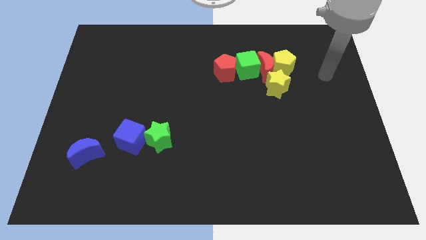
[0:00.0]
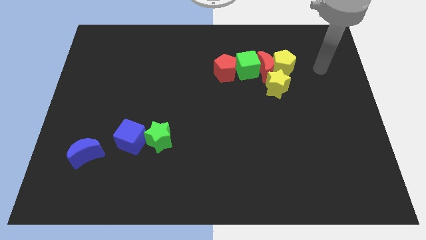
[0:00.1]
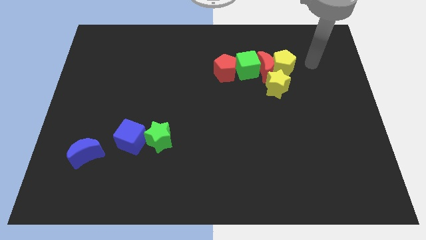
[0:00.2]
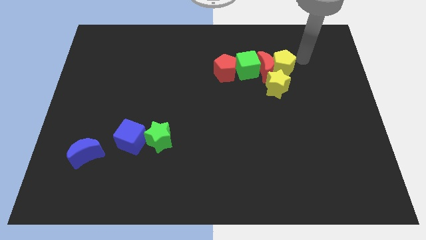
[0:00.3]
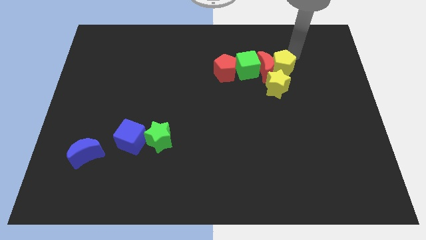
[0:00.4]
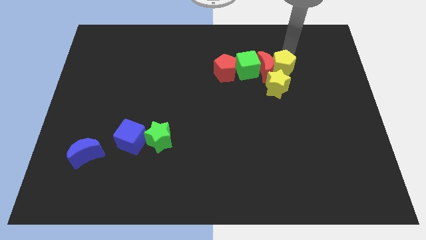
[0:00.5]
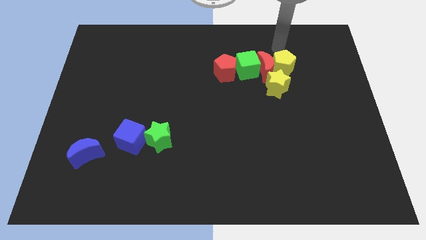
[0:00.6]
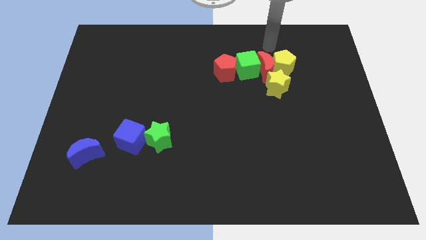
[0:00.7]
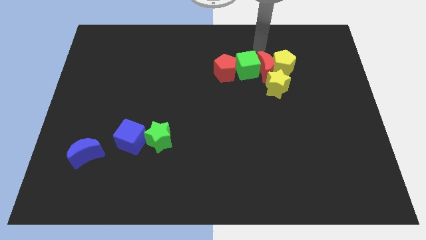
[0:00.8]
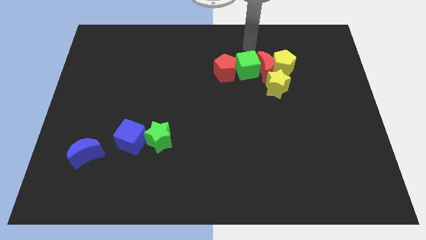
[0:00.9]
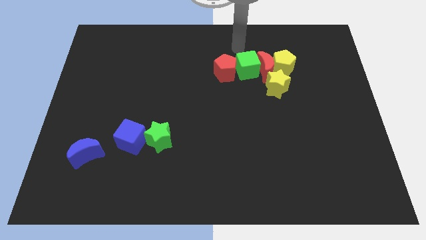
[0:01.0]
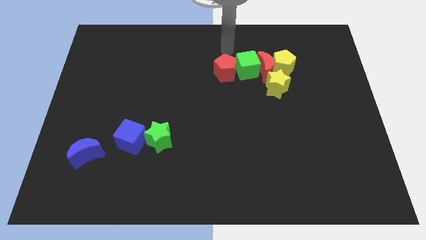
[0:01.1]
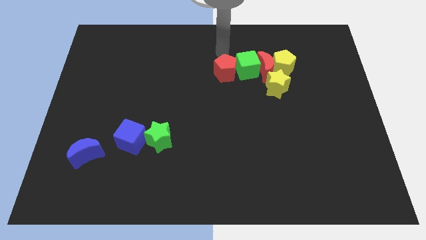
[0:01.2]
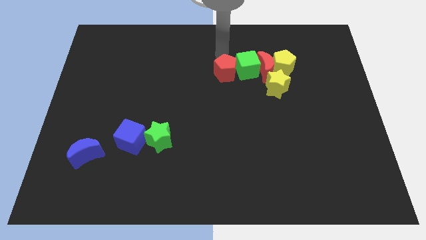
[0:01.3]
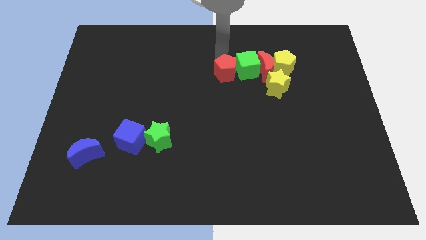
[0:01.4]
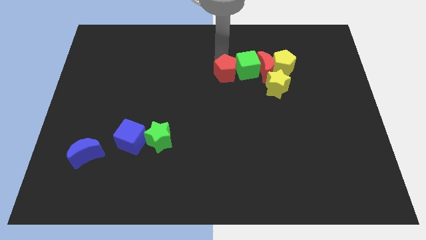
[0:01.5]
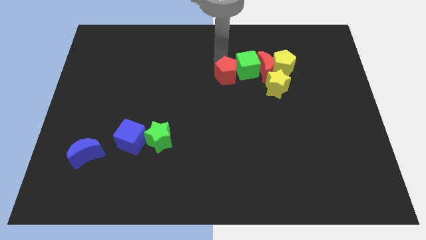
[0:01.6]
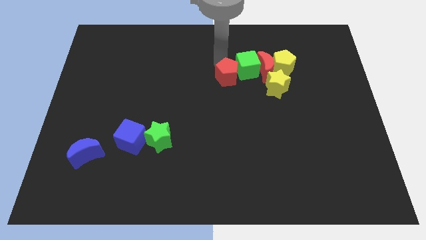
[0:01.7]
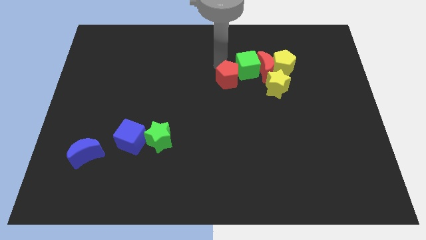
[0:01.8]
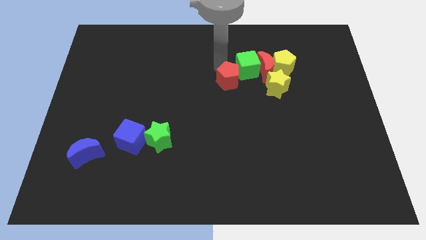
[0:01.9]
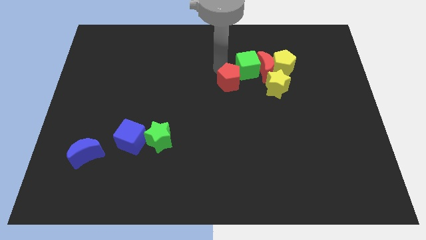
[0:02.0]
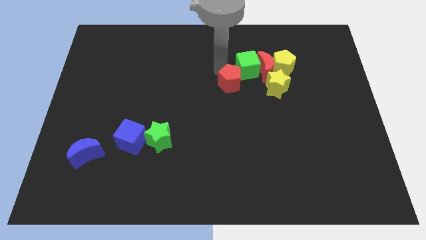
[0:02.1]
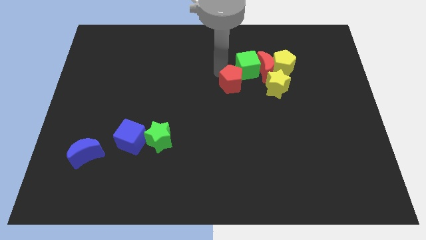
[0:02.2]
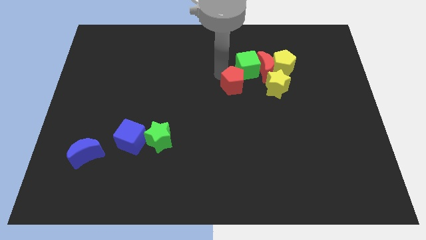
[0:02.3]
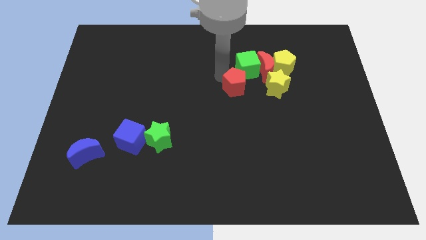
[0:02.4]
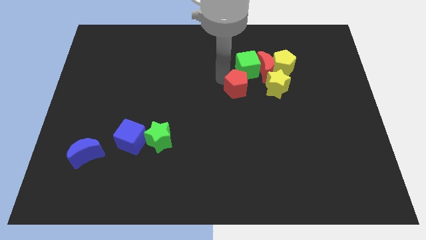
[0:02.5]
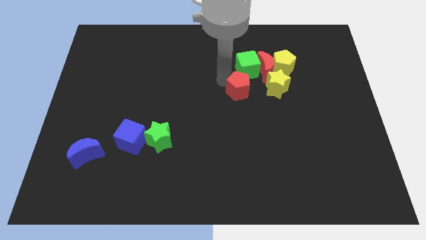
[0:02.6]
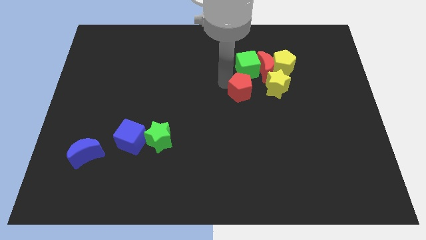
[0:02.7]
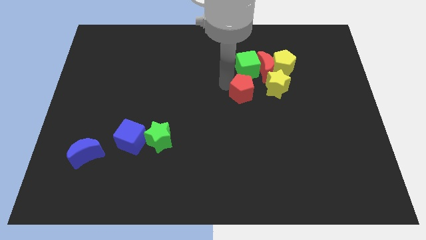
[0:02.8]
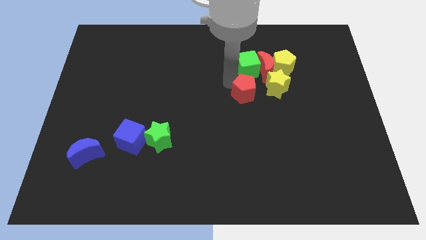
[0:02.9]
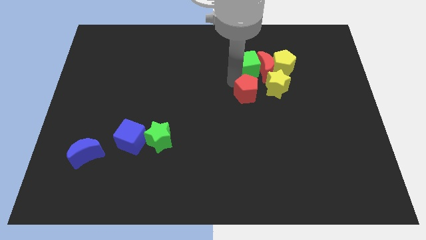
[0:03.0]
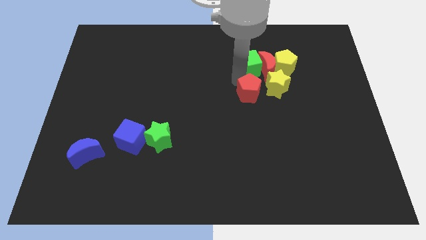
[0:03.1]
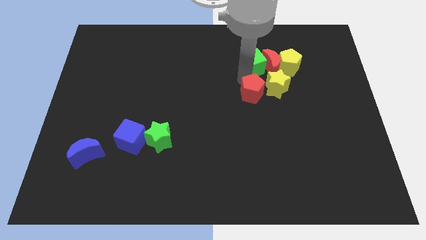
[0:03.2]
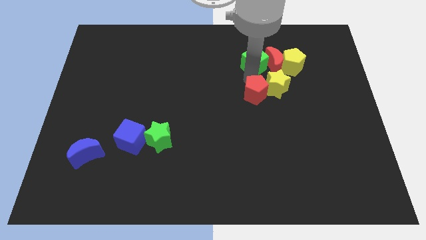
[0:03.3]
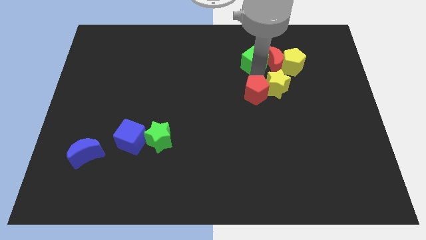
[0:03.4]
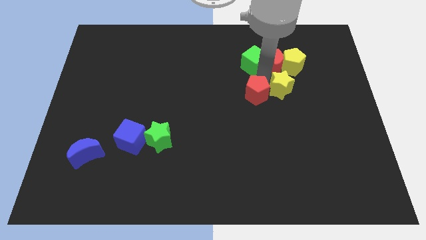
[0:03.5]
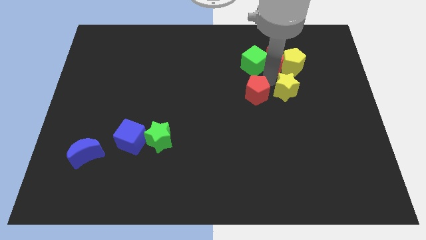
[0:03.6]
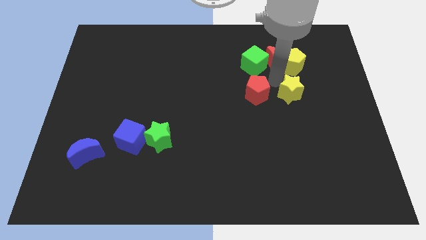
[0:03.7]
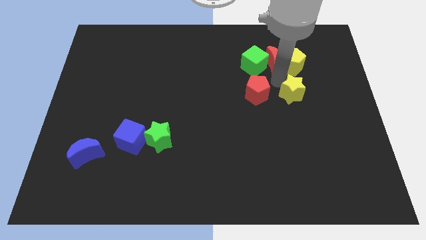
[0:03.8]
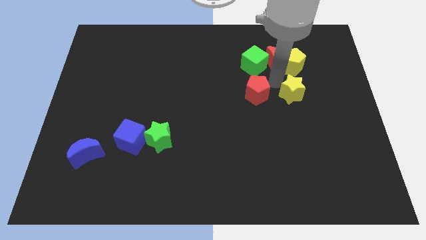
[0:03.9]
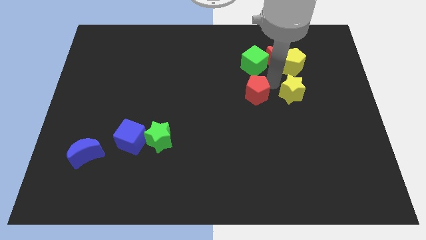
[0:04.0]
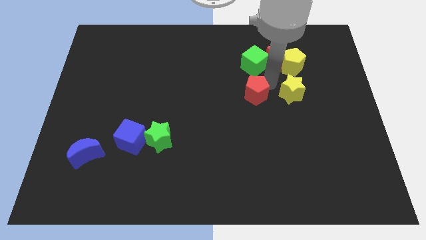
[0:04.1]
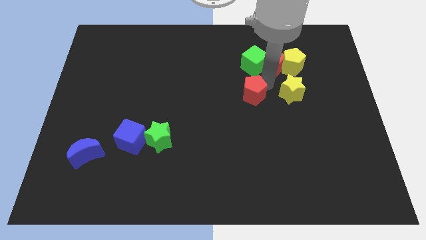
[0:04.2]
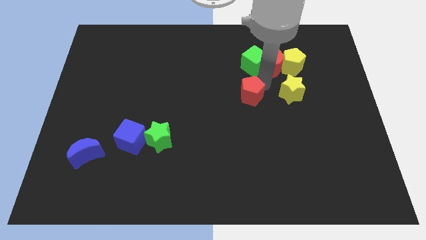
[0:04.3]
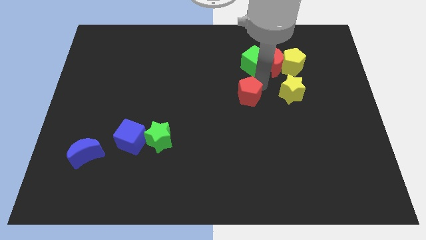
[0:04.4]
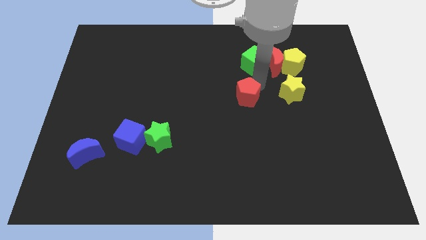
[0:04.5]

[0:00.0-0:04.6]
slightly slide the red pentagon down

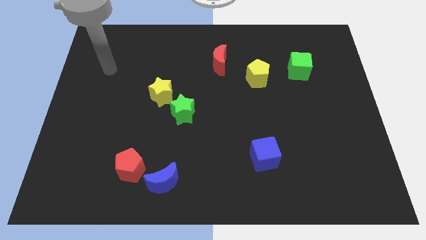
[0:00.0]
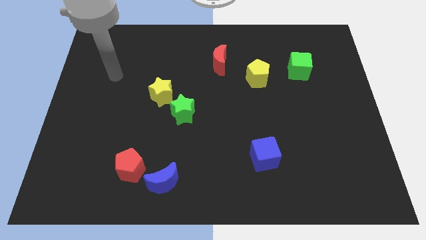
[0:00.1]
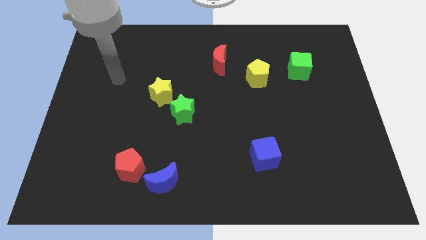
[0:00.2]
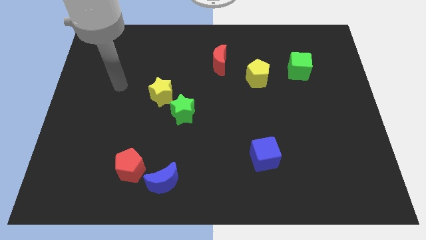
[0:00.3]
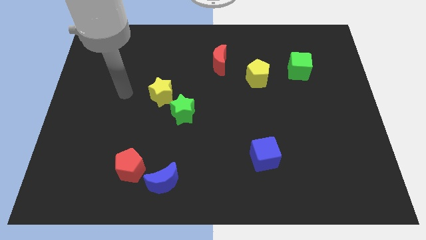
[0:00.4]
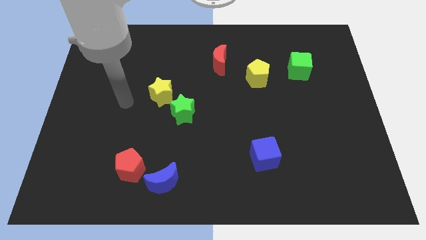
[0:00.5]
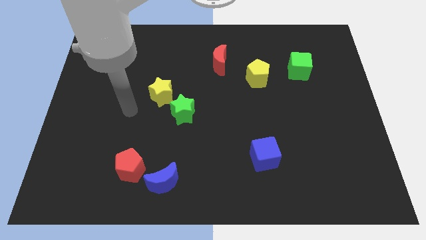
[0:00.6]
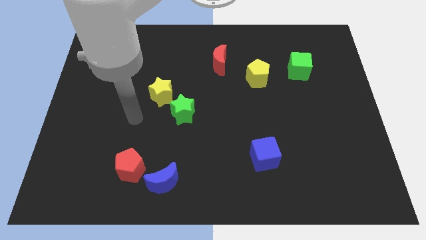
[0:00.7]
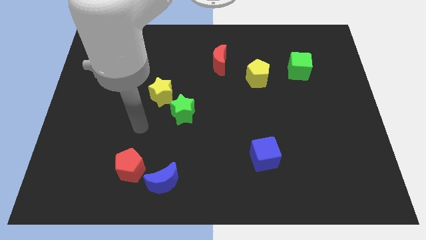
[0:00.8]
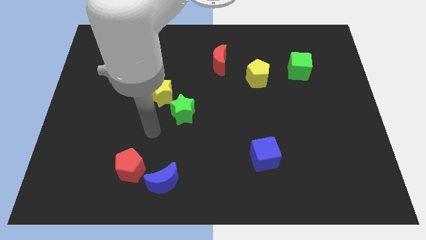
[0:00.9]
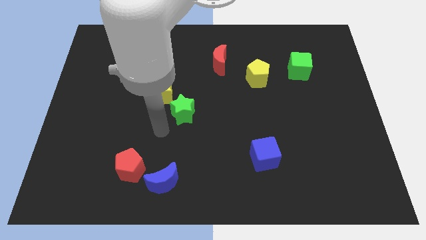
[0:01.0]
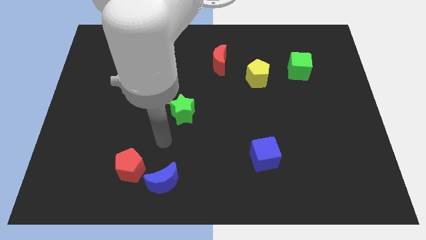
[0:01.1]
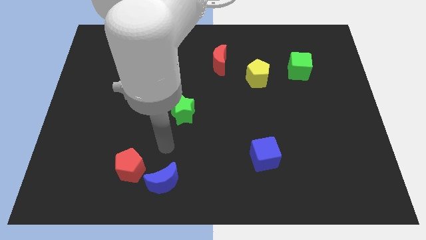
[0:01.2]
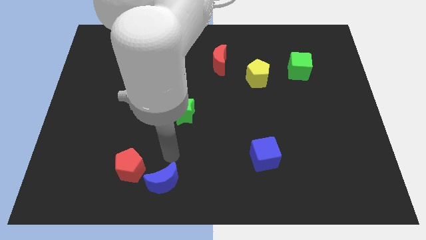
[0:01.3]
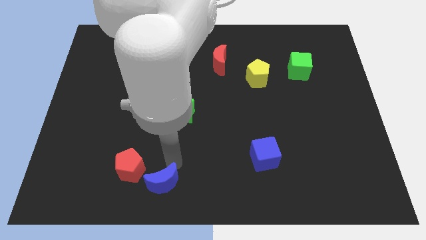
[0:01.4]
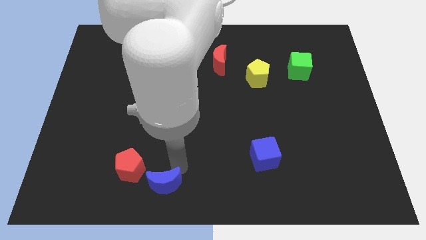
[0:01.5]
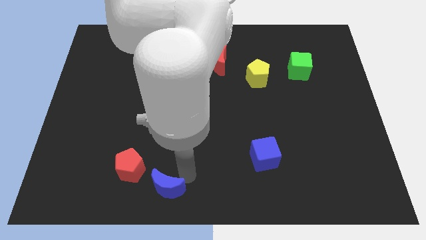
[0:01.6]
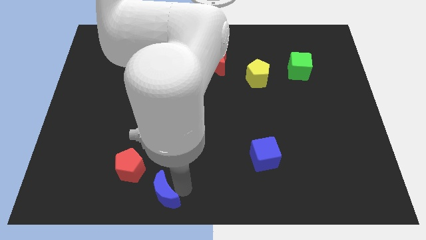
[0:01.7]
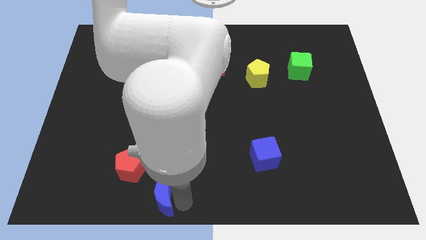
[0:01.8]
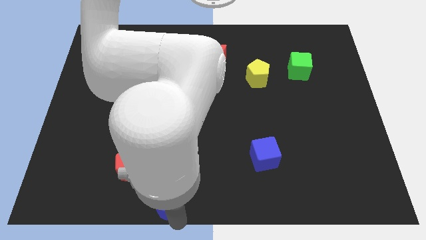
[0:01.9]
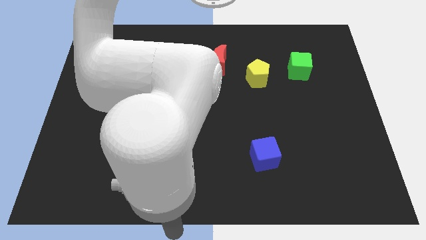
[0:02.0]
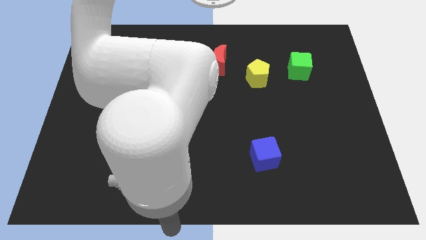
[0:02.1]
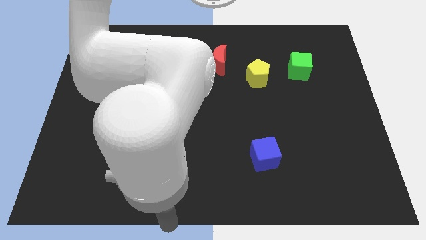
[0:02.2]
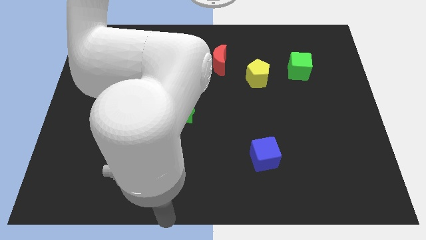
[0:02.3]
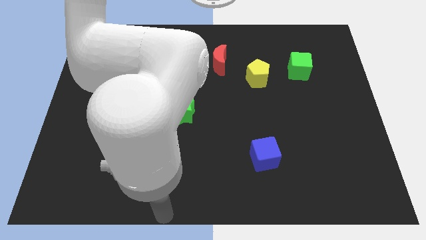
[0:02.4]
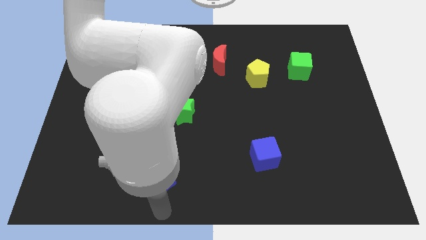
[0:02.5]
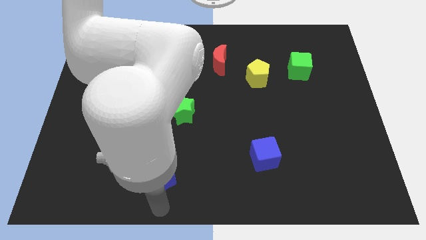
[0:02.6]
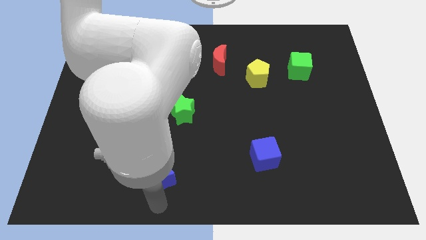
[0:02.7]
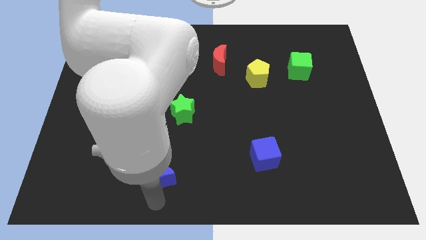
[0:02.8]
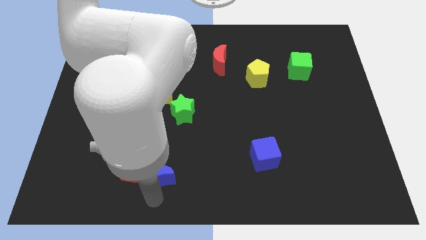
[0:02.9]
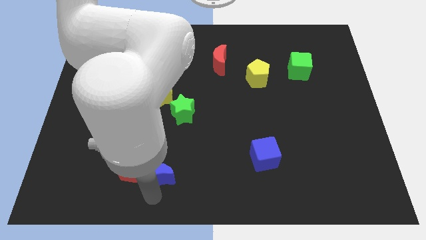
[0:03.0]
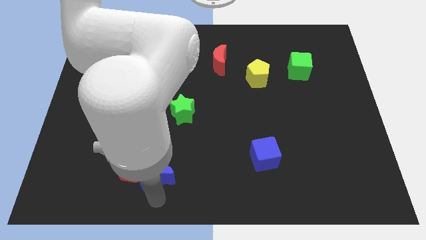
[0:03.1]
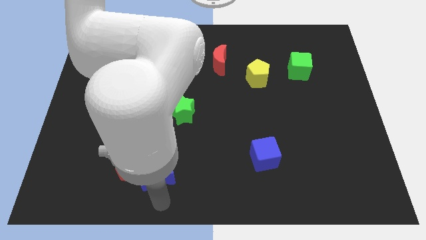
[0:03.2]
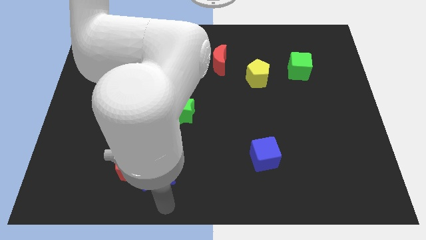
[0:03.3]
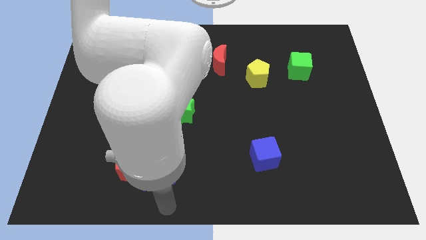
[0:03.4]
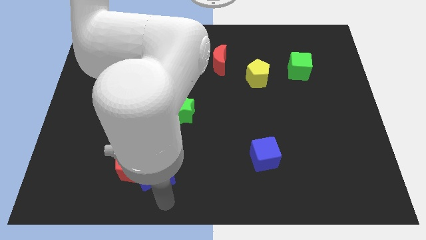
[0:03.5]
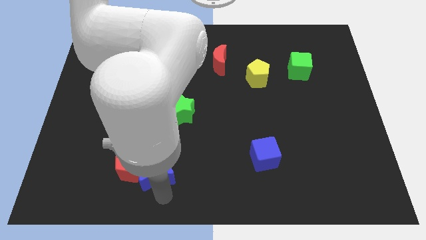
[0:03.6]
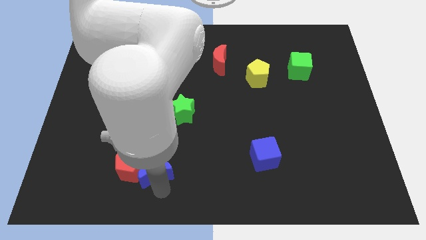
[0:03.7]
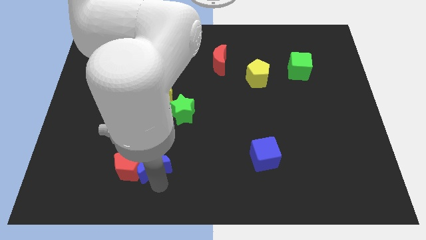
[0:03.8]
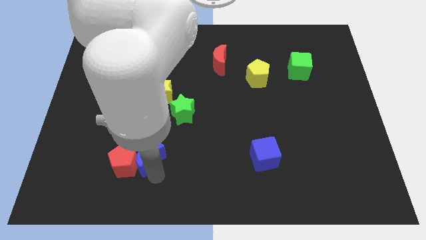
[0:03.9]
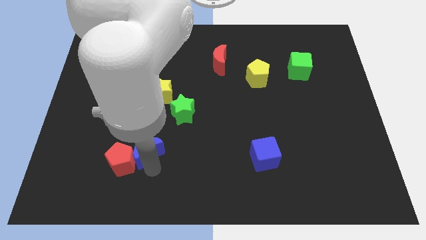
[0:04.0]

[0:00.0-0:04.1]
slightly move the blue moon up and to the left diagonally
